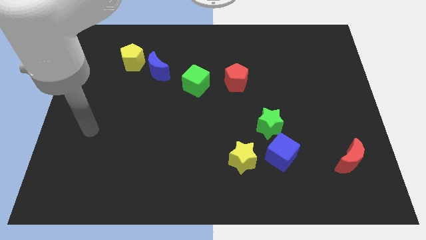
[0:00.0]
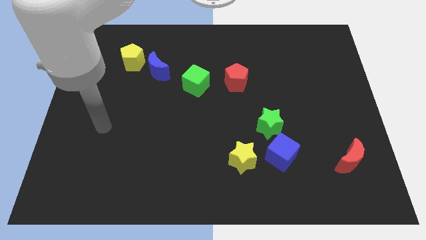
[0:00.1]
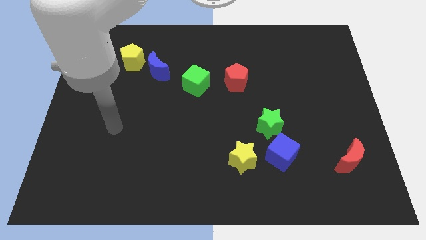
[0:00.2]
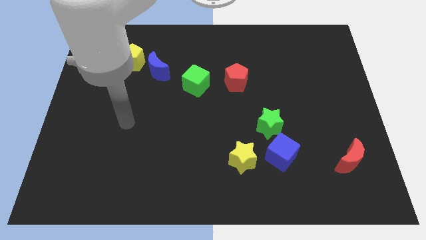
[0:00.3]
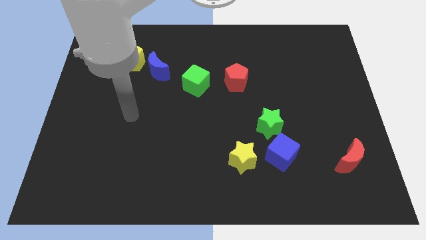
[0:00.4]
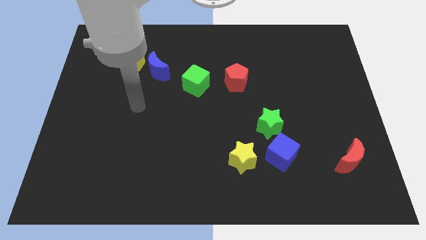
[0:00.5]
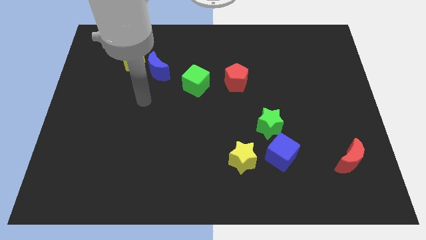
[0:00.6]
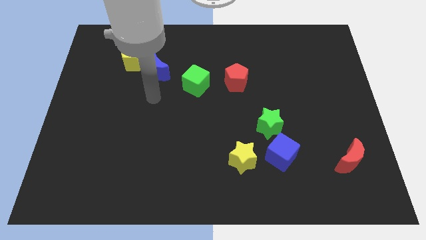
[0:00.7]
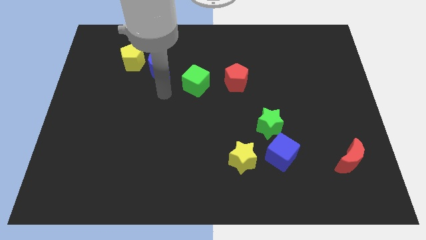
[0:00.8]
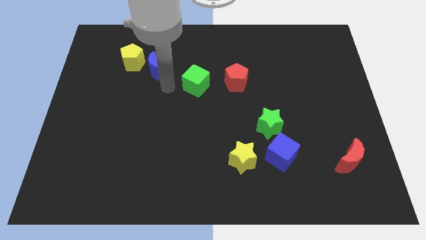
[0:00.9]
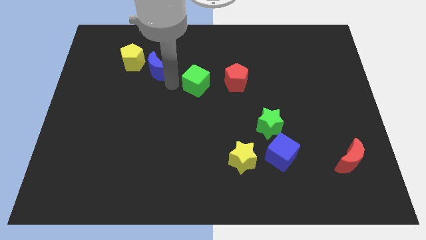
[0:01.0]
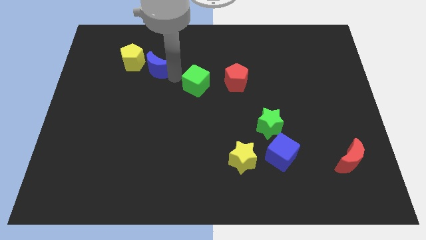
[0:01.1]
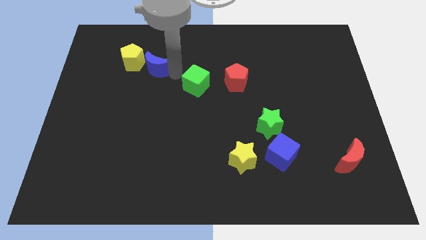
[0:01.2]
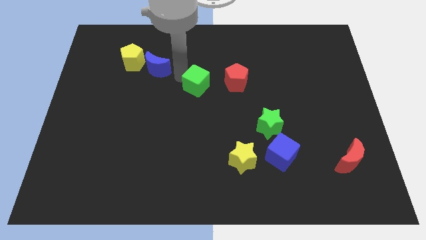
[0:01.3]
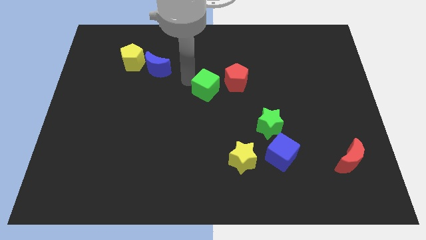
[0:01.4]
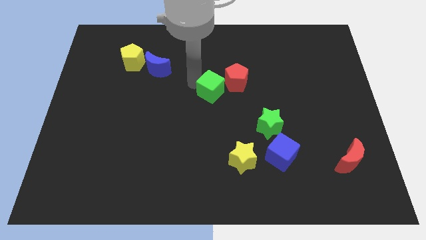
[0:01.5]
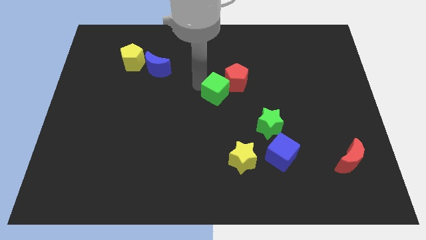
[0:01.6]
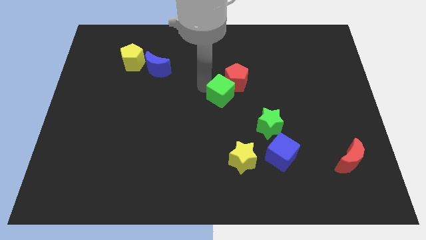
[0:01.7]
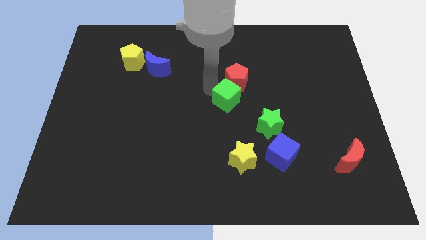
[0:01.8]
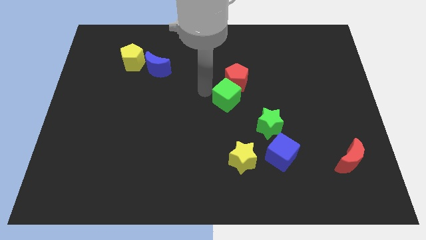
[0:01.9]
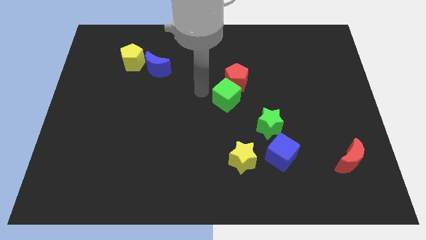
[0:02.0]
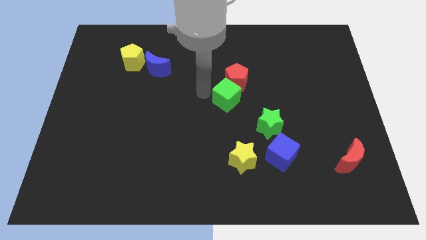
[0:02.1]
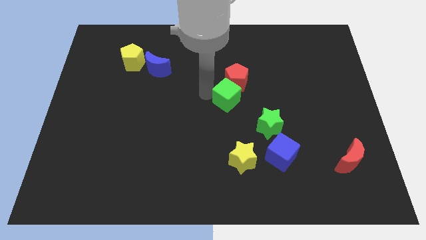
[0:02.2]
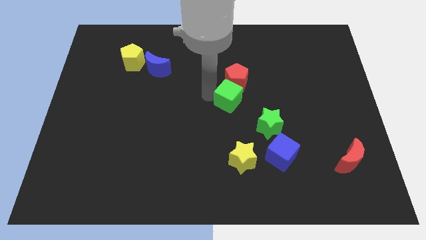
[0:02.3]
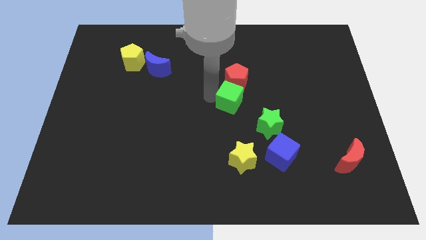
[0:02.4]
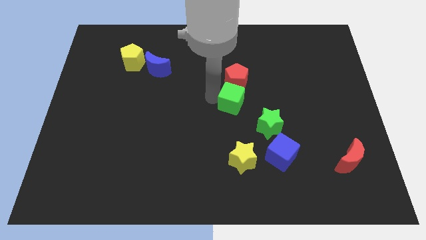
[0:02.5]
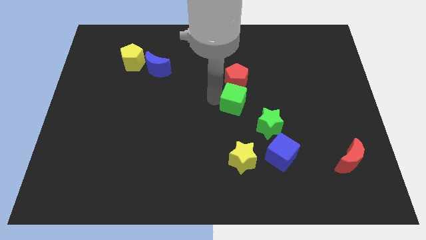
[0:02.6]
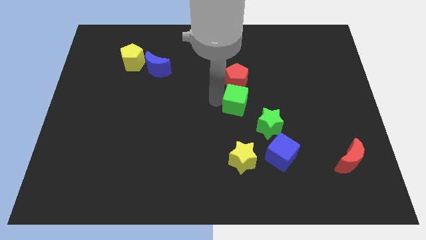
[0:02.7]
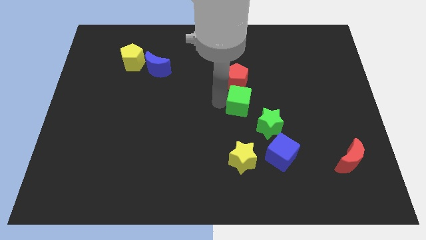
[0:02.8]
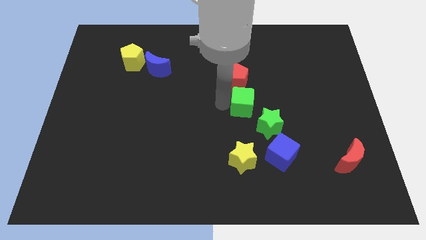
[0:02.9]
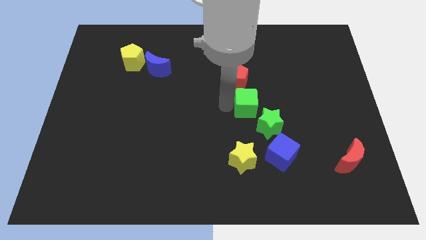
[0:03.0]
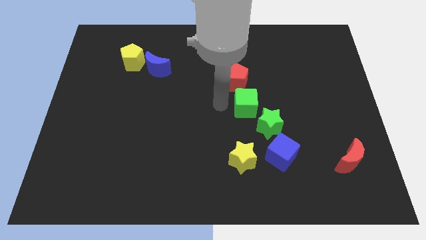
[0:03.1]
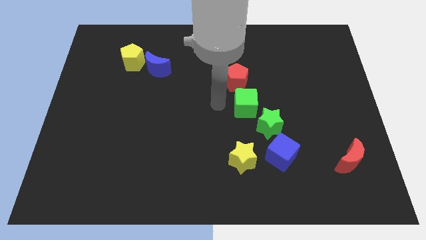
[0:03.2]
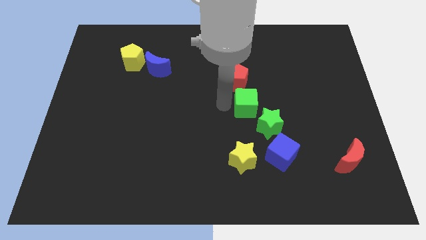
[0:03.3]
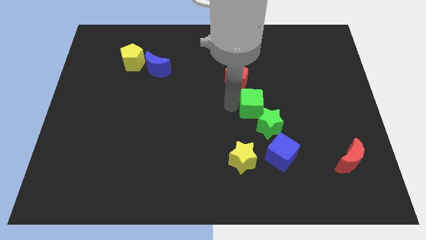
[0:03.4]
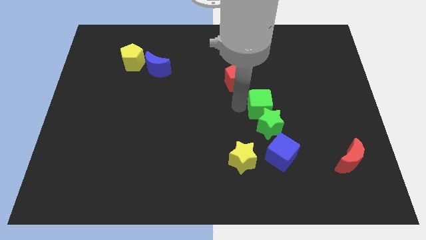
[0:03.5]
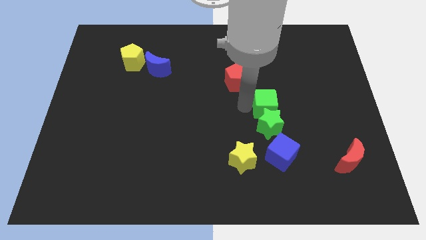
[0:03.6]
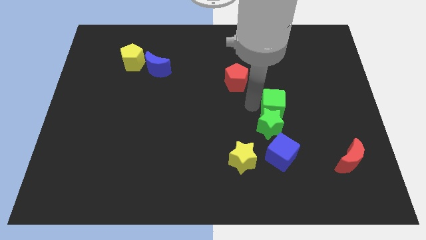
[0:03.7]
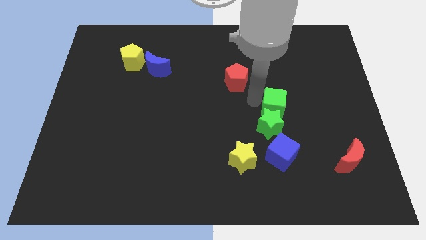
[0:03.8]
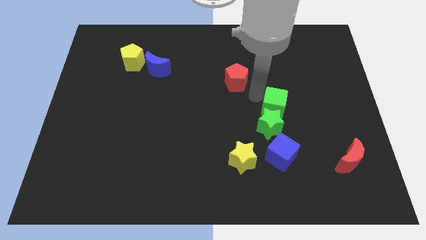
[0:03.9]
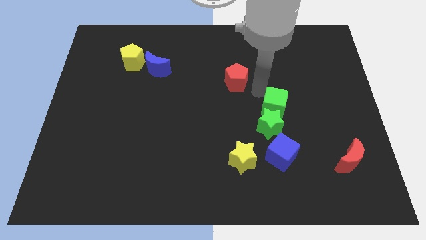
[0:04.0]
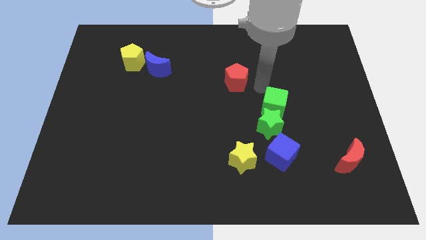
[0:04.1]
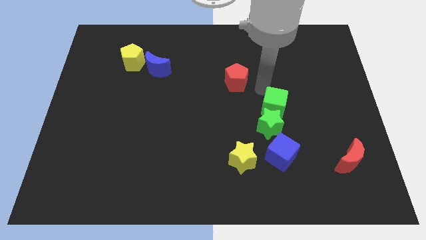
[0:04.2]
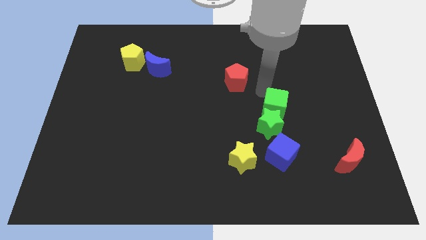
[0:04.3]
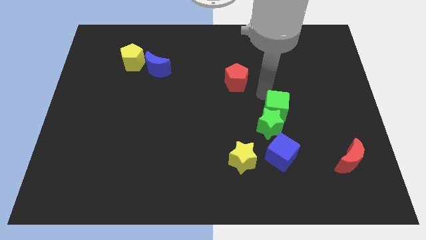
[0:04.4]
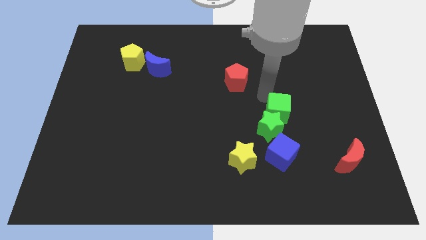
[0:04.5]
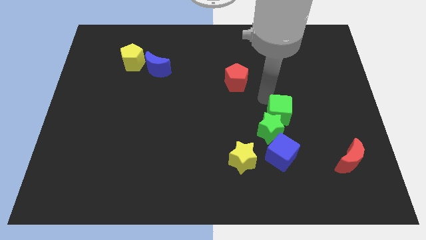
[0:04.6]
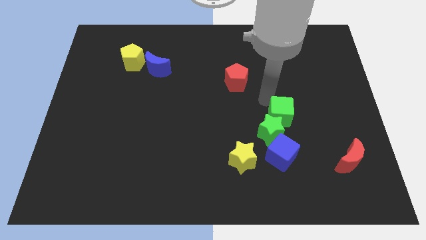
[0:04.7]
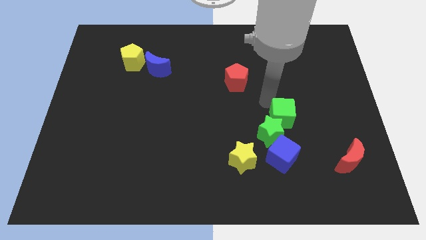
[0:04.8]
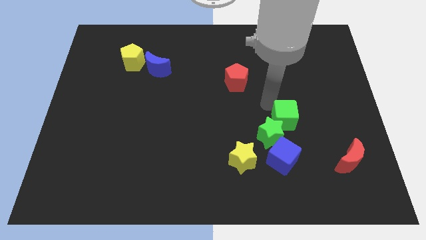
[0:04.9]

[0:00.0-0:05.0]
push the green cube downwards and to the right diagonally

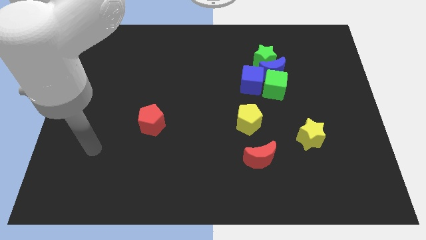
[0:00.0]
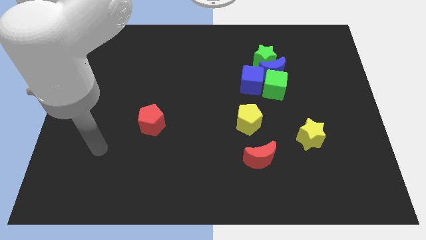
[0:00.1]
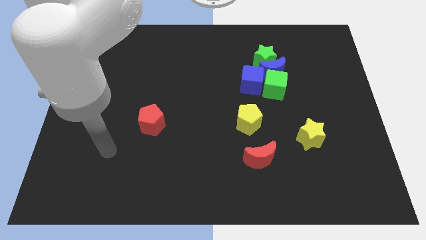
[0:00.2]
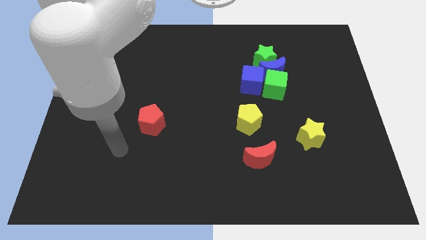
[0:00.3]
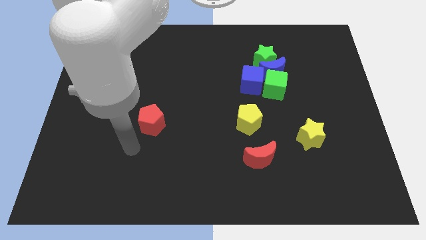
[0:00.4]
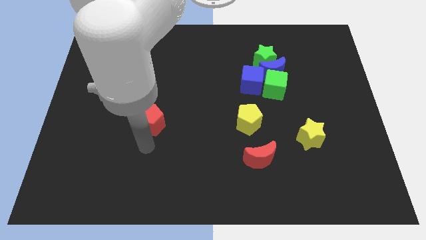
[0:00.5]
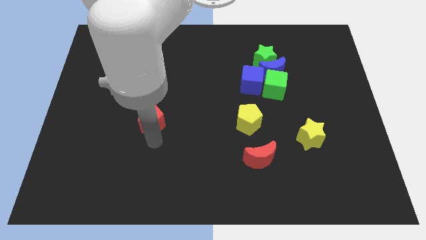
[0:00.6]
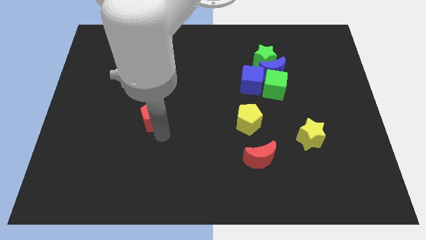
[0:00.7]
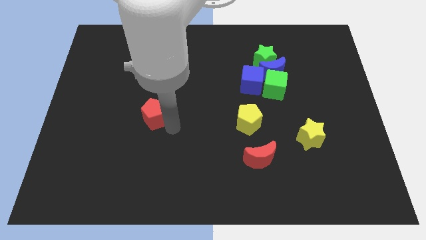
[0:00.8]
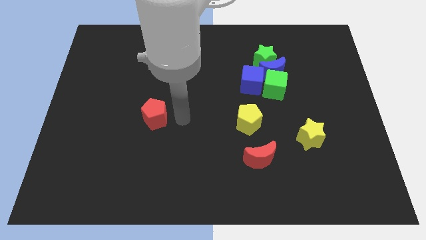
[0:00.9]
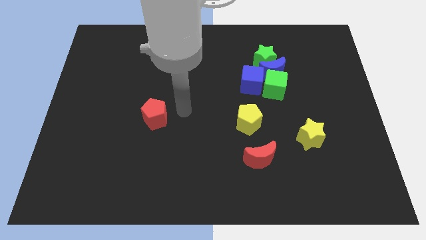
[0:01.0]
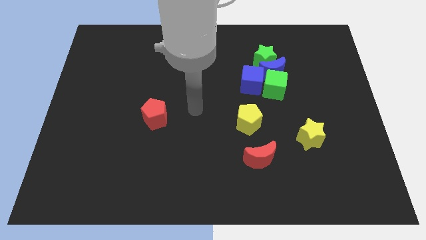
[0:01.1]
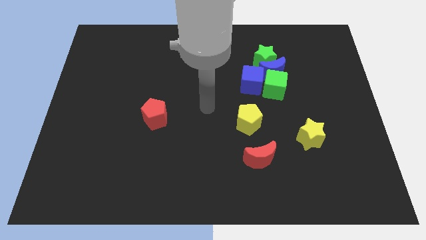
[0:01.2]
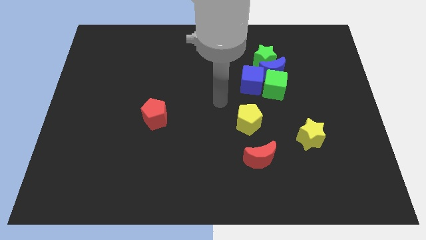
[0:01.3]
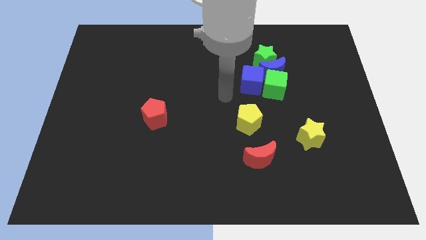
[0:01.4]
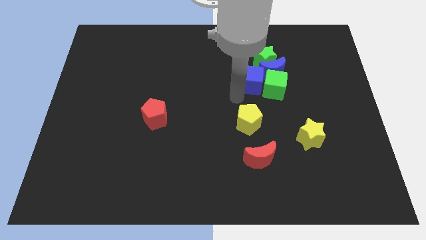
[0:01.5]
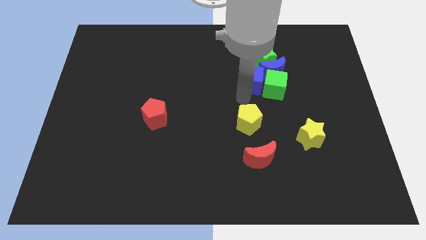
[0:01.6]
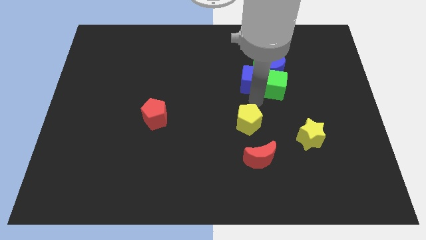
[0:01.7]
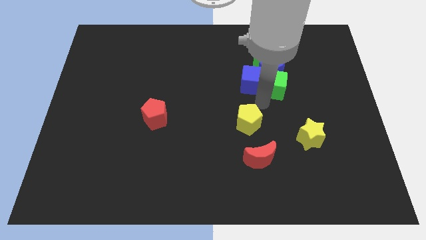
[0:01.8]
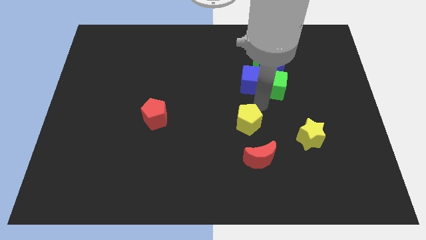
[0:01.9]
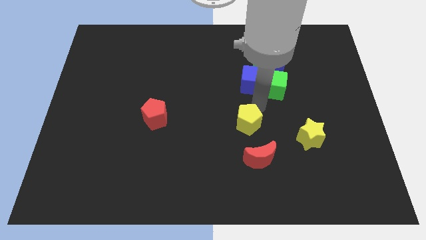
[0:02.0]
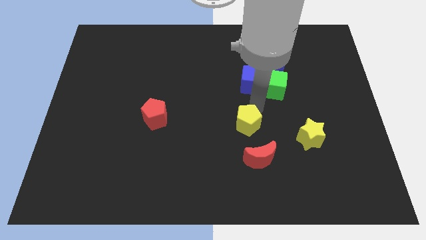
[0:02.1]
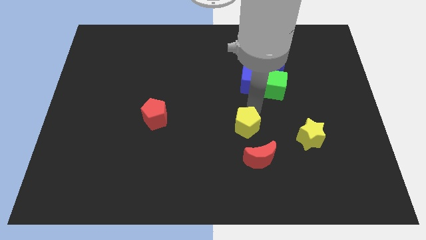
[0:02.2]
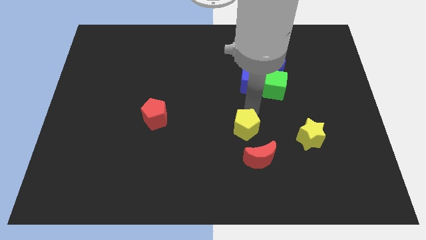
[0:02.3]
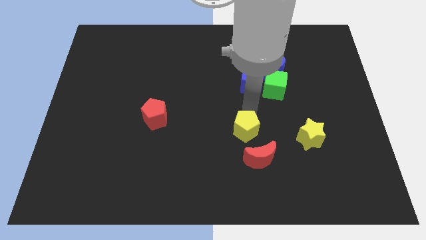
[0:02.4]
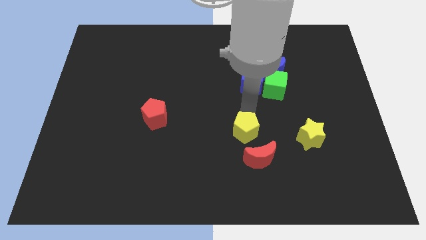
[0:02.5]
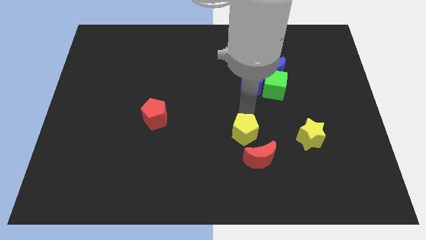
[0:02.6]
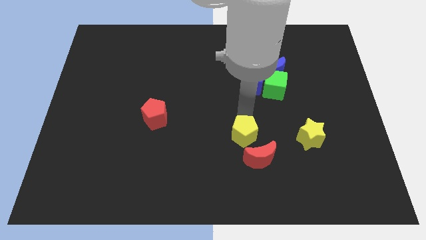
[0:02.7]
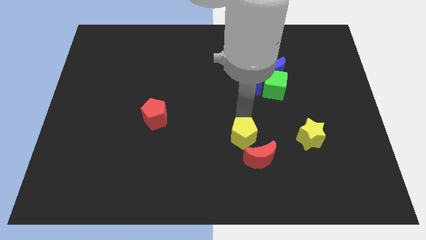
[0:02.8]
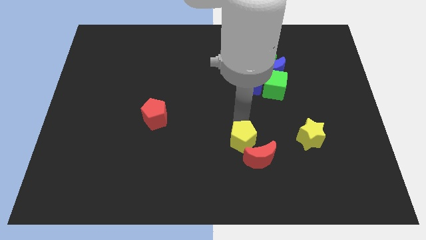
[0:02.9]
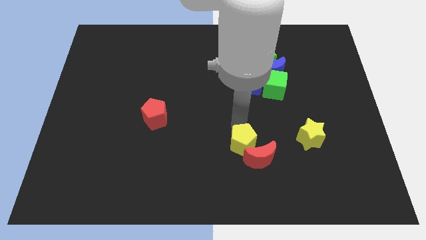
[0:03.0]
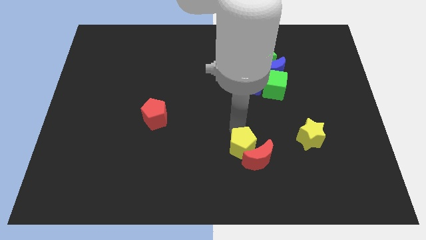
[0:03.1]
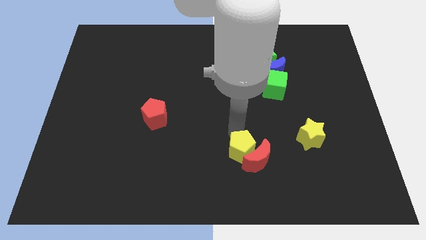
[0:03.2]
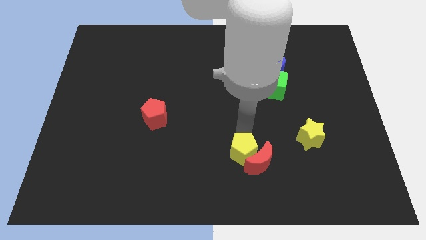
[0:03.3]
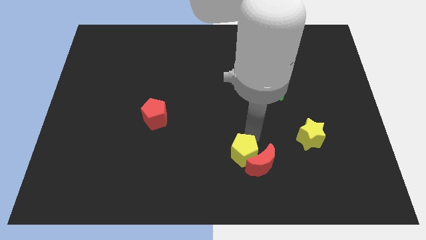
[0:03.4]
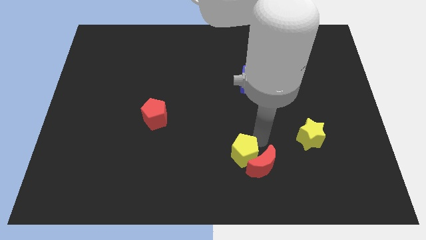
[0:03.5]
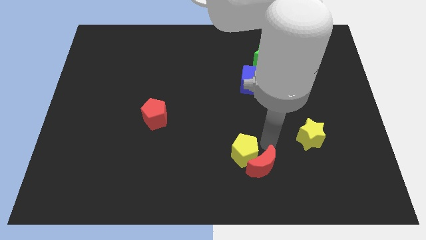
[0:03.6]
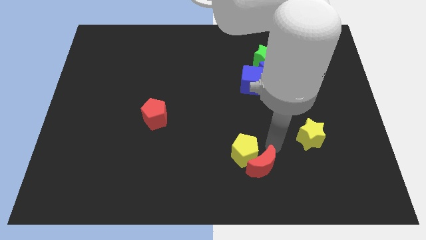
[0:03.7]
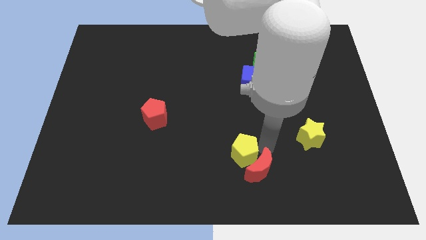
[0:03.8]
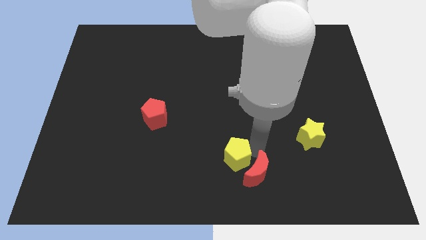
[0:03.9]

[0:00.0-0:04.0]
move the yellow pentagon a bit downwards and then to the left
